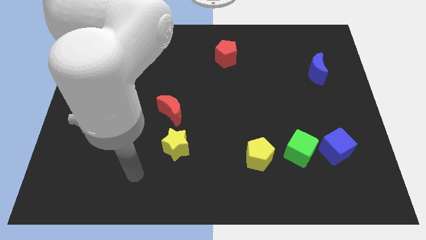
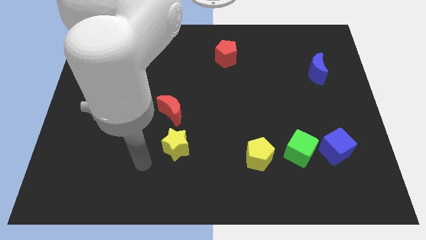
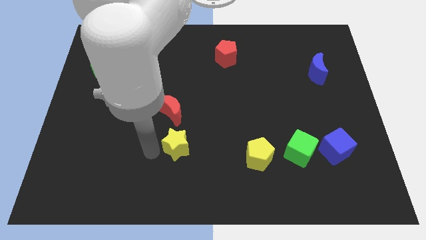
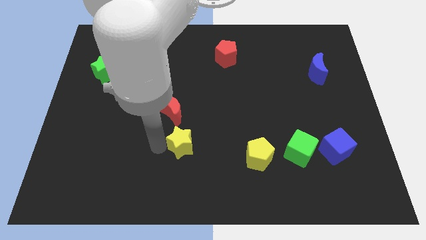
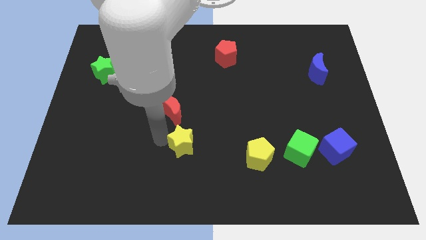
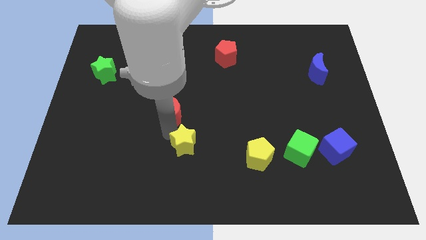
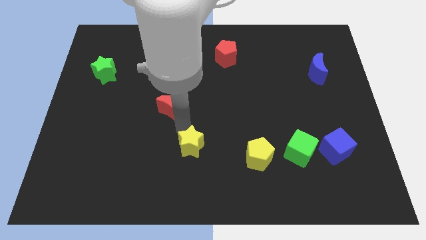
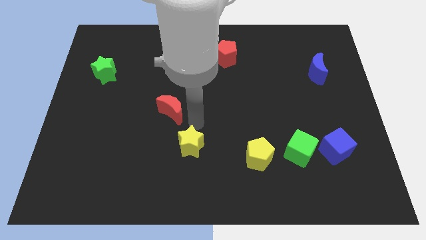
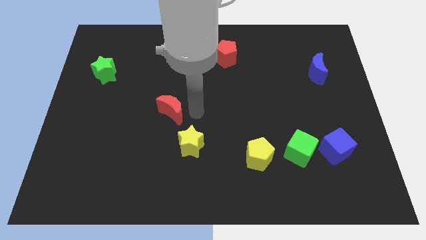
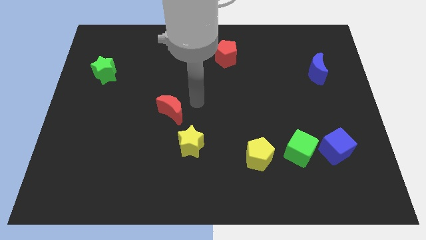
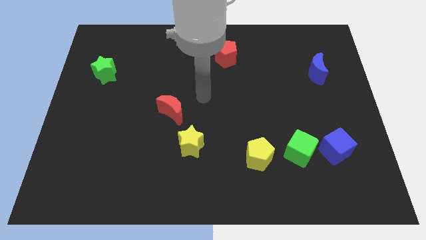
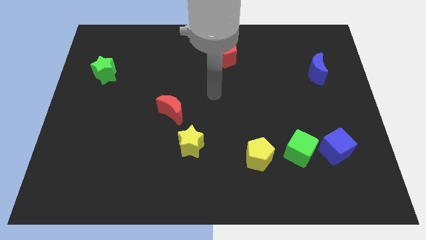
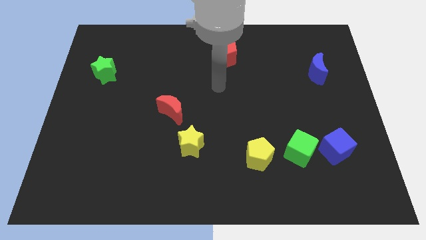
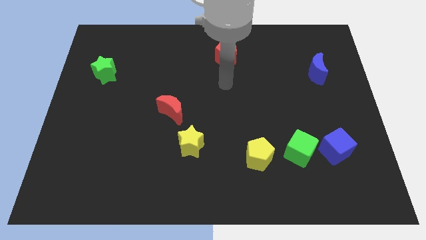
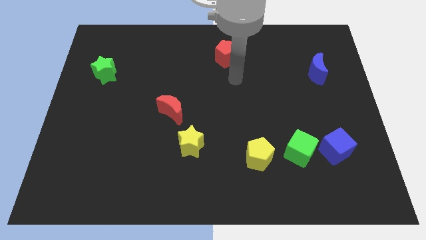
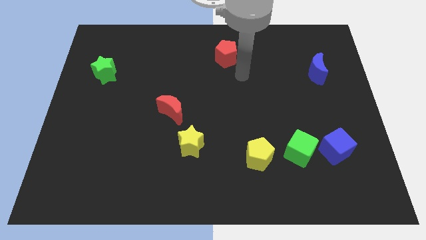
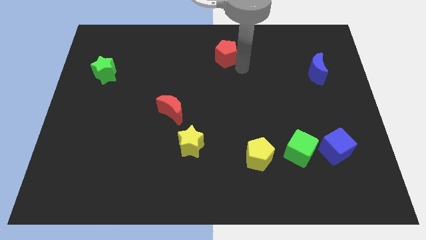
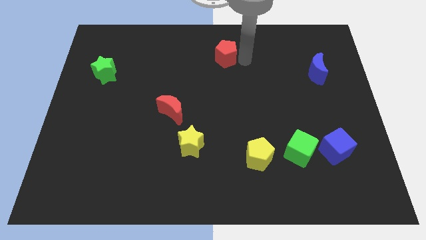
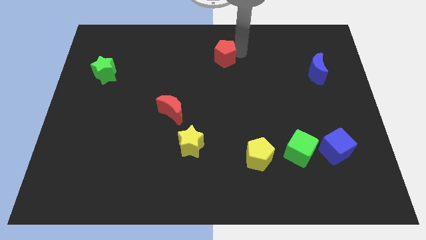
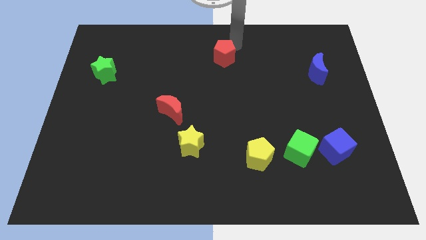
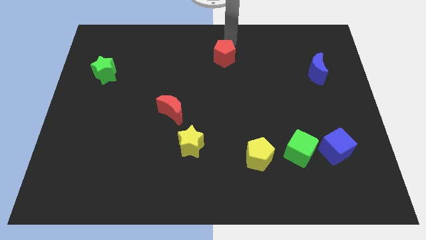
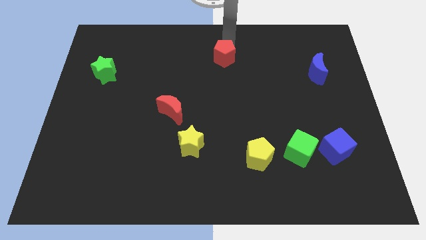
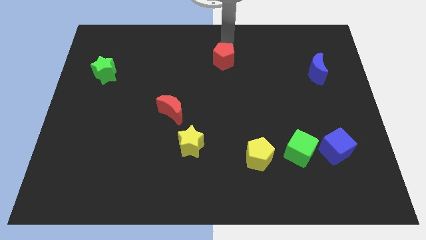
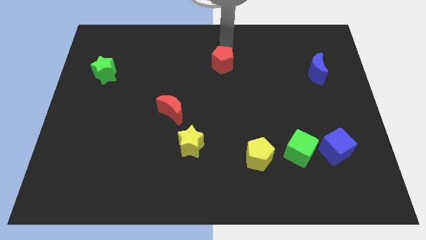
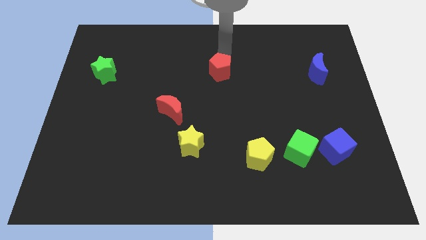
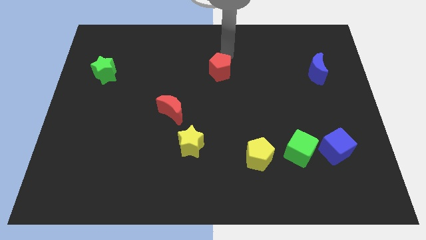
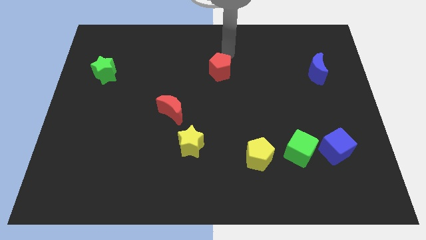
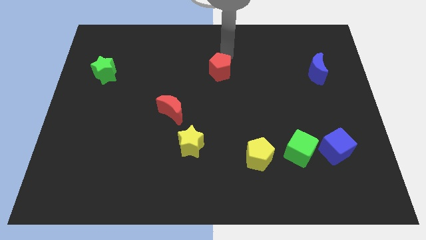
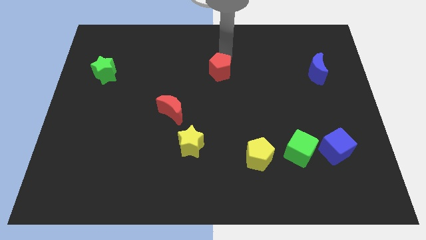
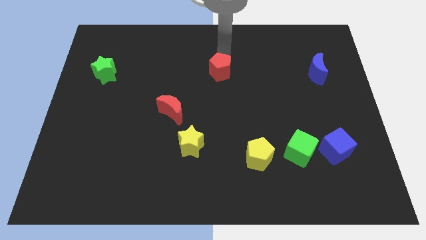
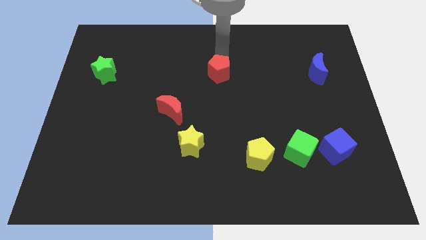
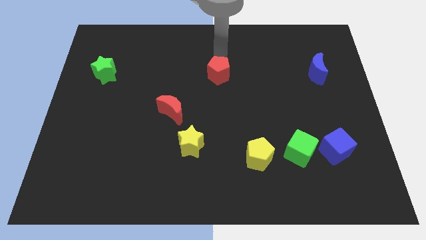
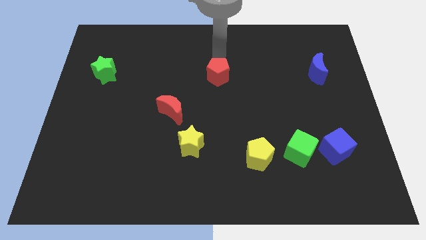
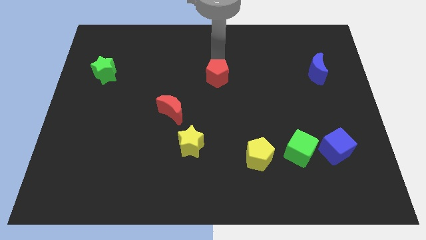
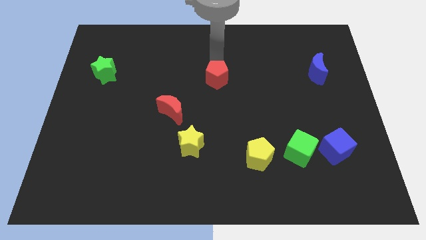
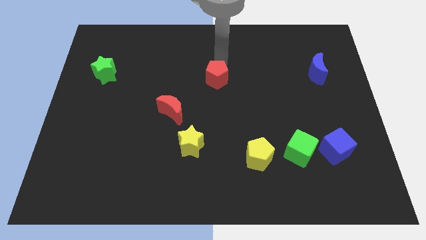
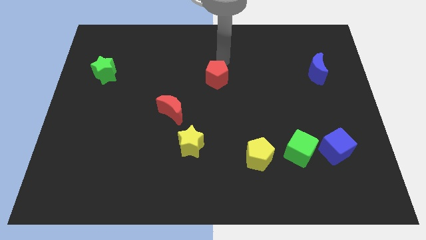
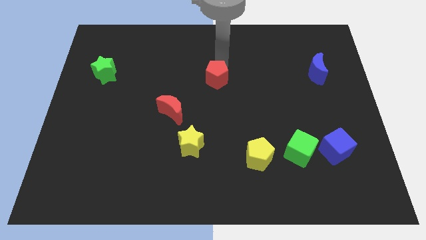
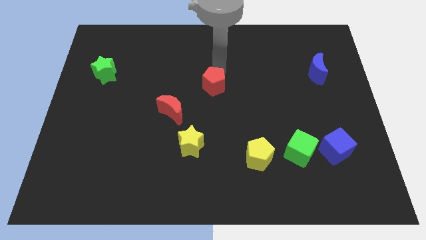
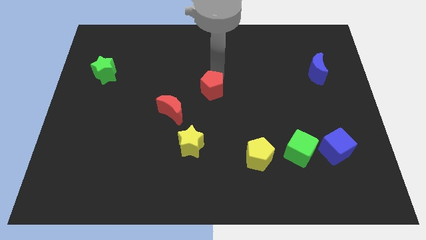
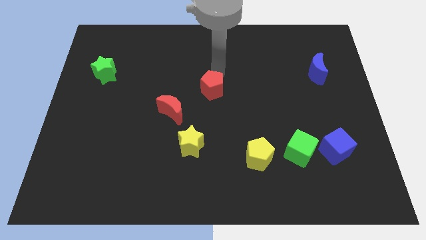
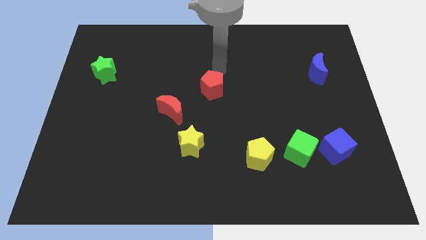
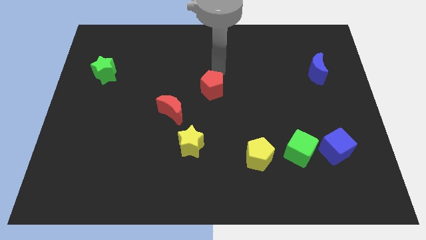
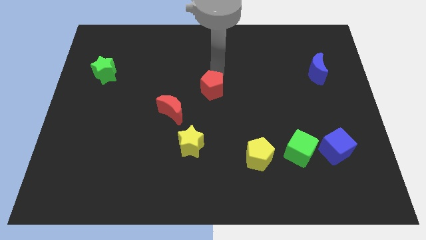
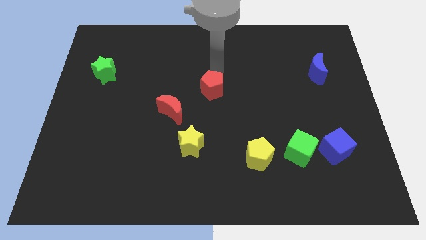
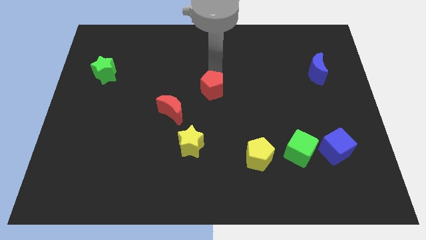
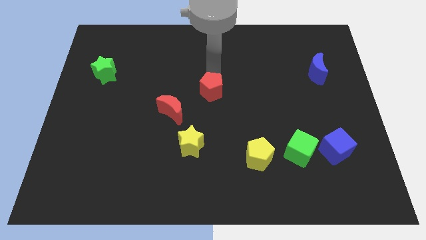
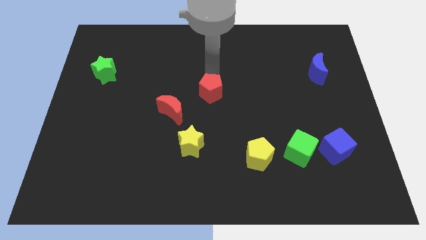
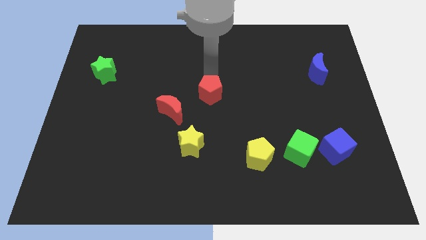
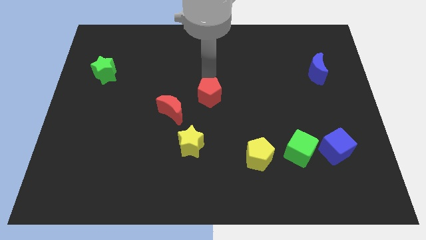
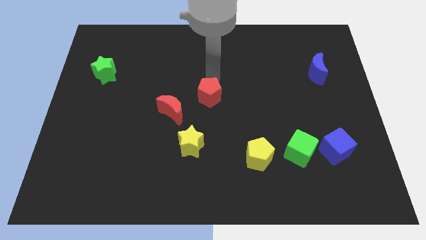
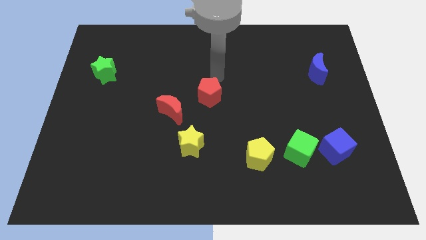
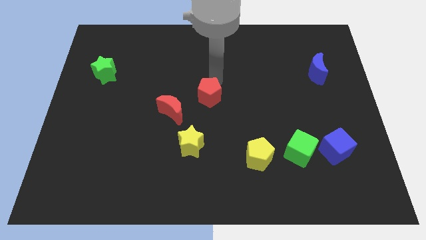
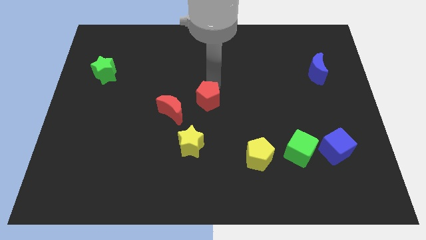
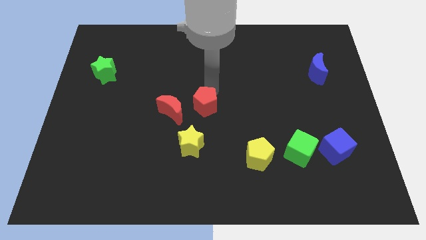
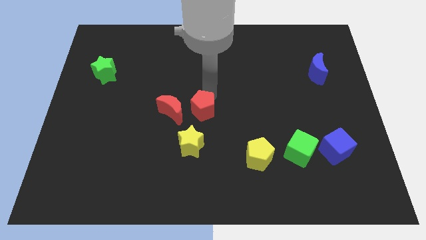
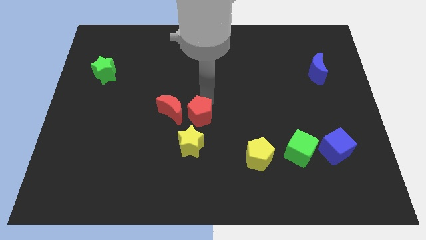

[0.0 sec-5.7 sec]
move the red pentagon to the bottom right of the red moon

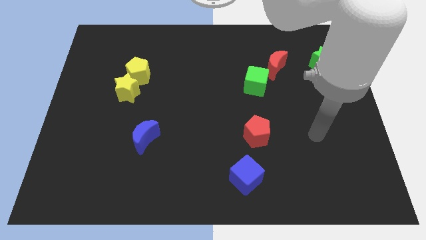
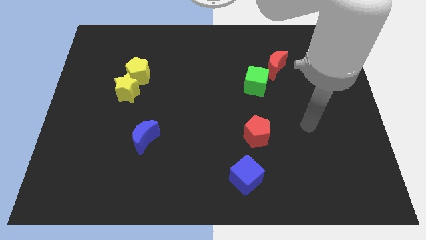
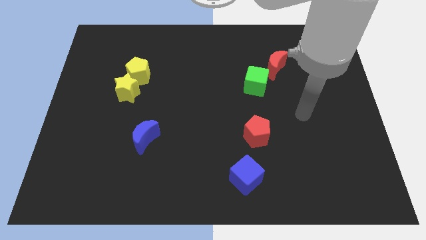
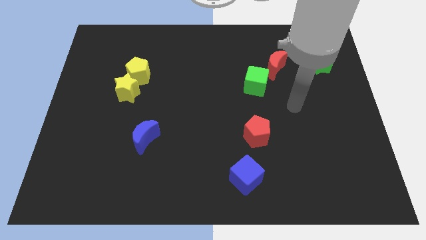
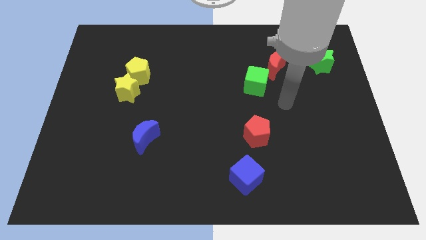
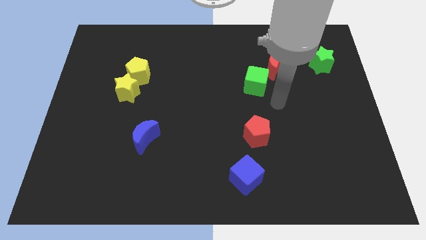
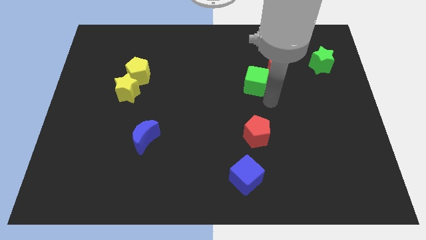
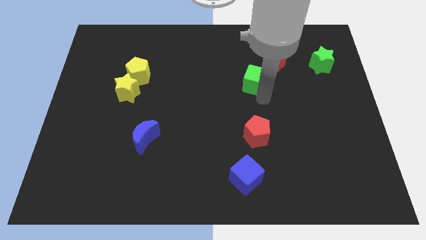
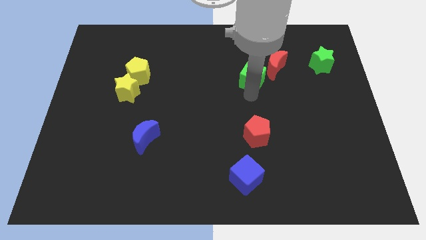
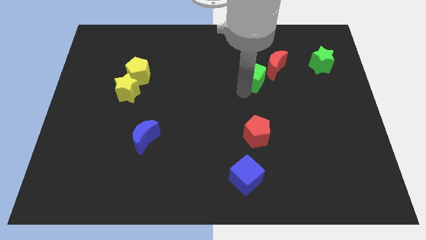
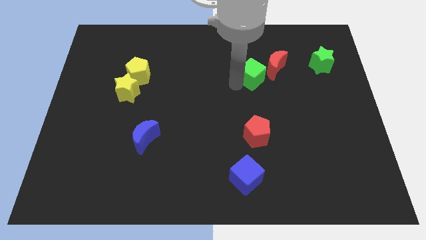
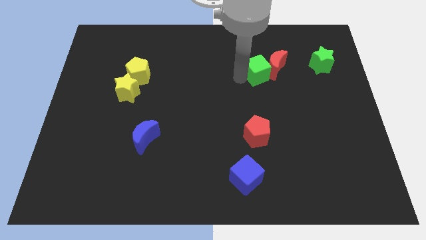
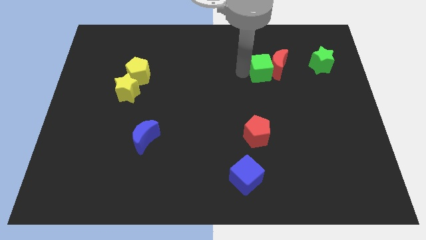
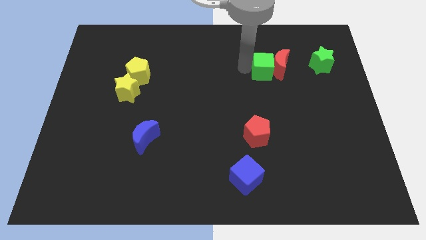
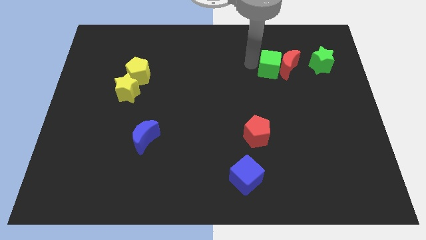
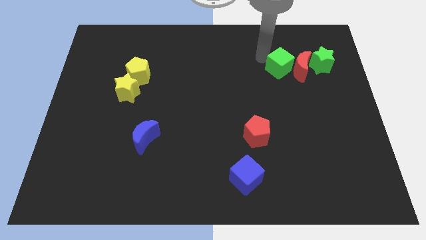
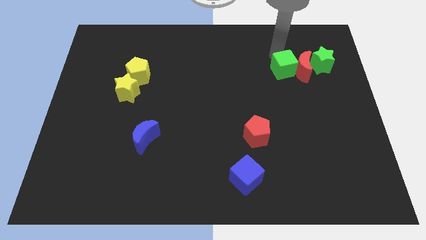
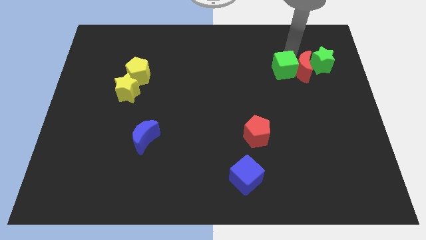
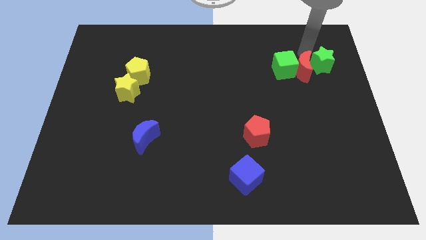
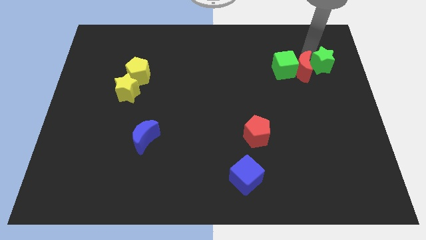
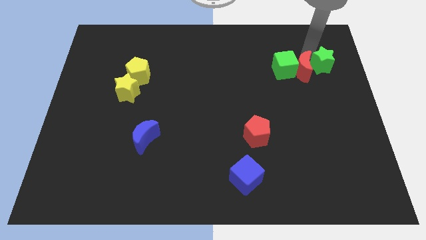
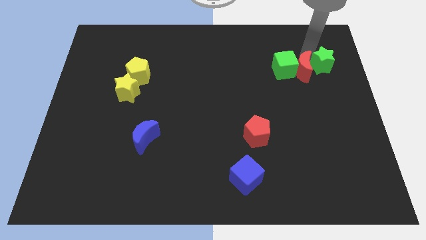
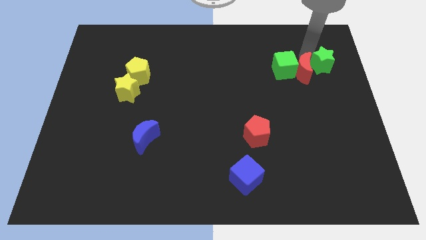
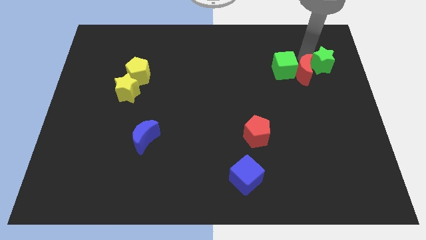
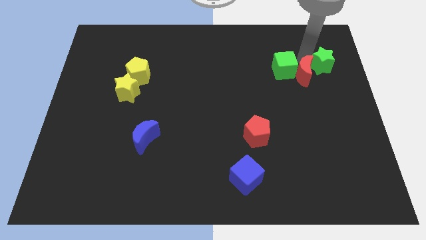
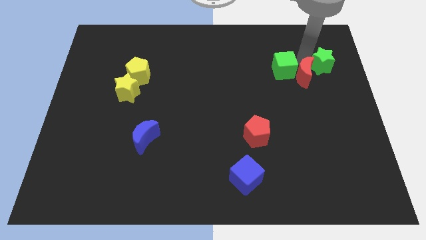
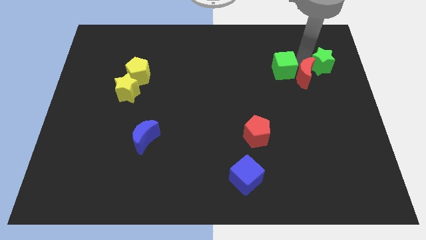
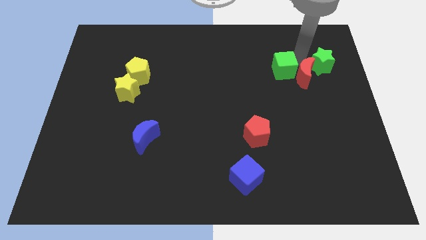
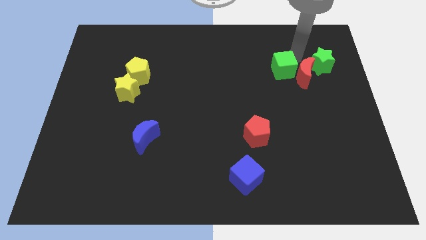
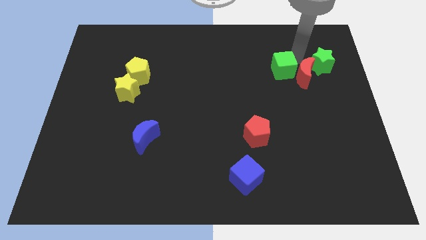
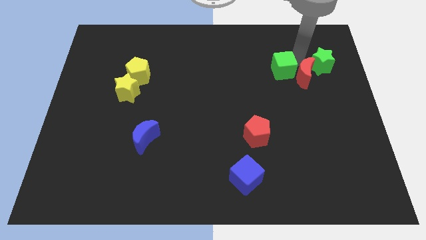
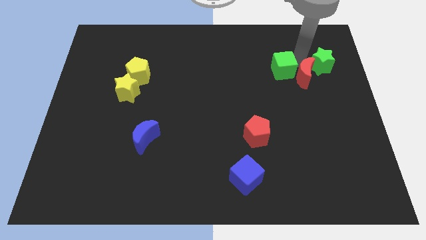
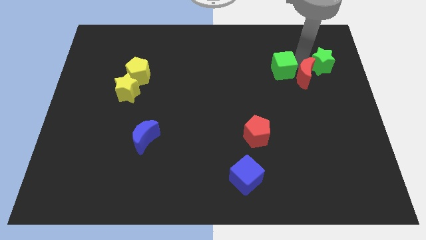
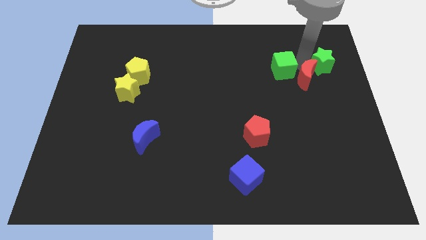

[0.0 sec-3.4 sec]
push the red moon to the bottom of the green star
